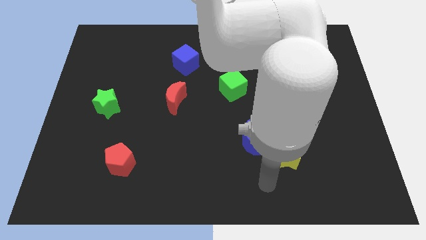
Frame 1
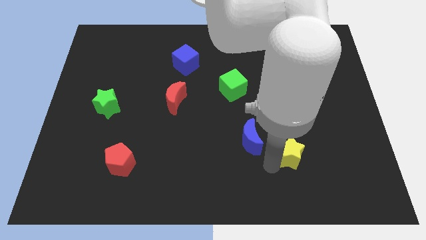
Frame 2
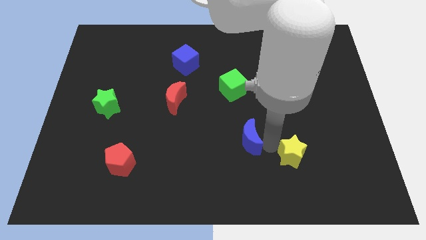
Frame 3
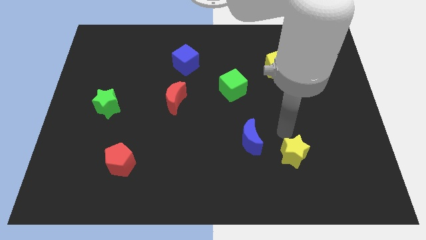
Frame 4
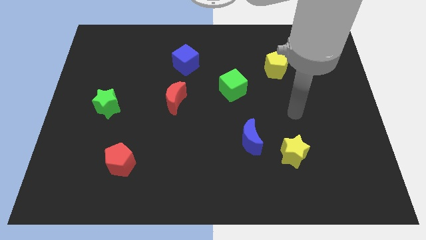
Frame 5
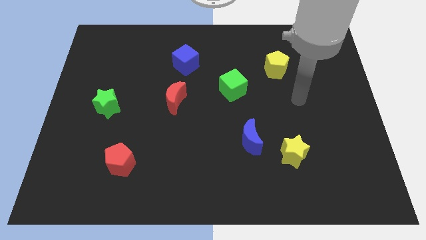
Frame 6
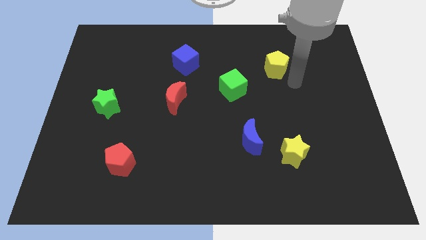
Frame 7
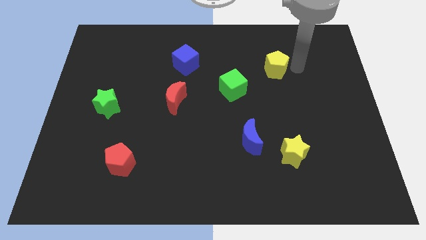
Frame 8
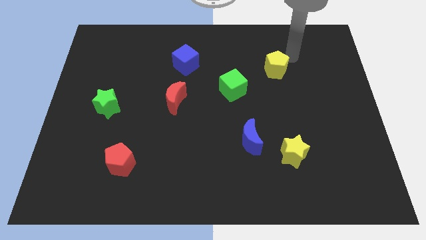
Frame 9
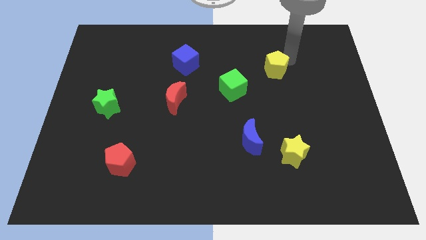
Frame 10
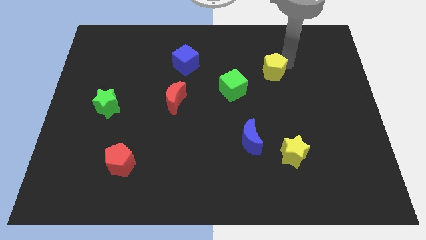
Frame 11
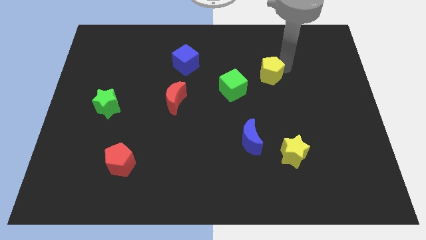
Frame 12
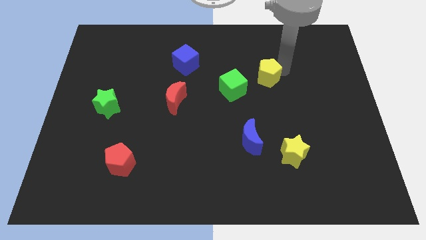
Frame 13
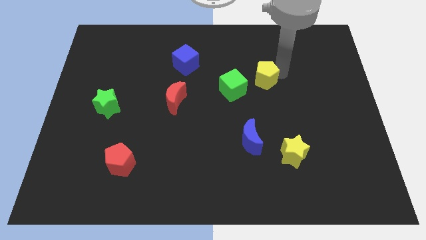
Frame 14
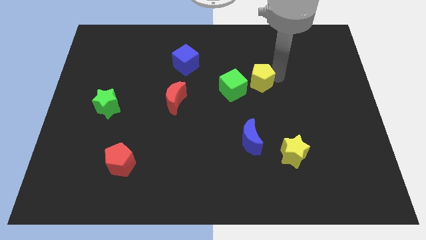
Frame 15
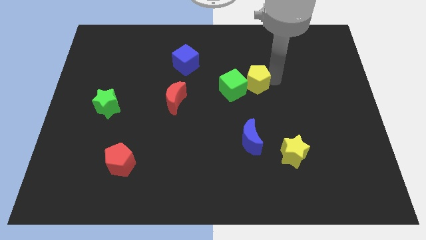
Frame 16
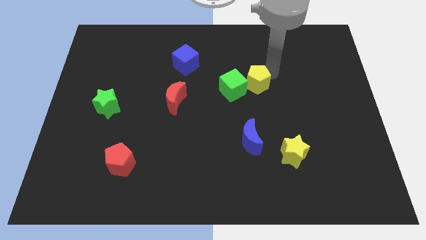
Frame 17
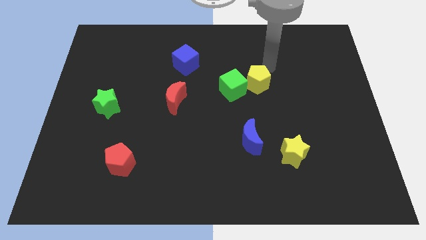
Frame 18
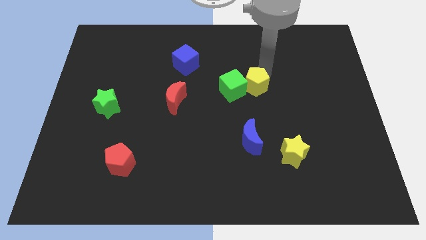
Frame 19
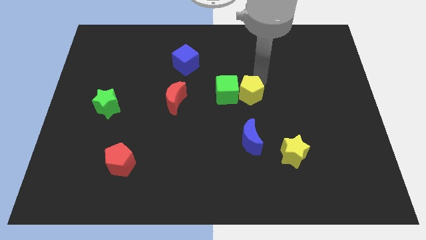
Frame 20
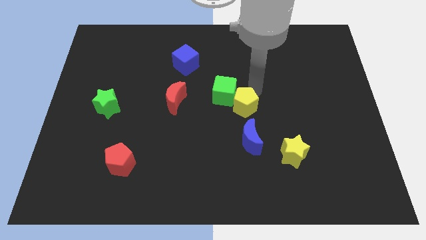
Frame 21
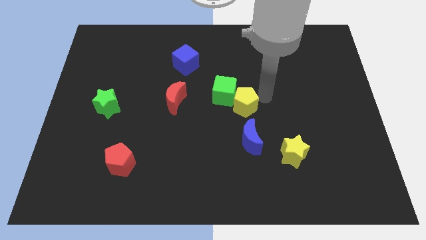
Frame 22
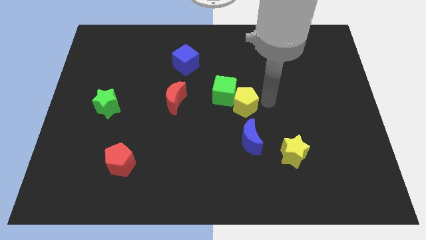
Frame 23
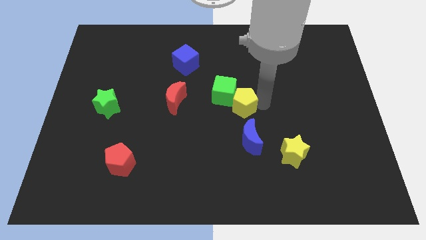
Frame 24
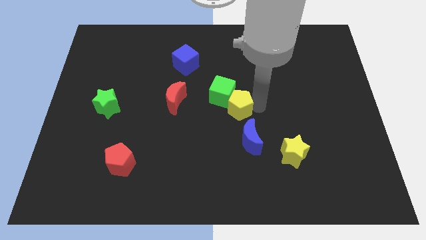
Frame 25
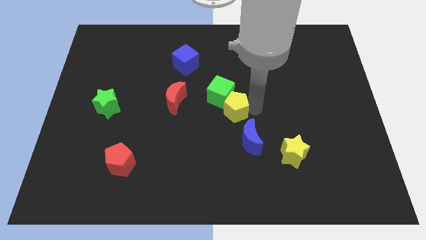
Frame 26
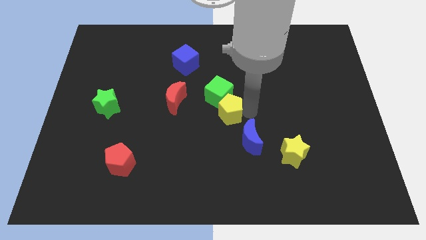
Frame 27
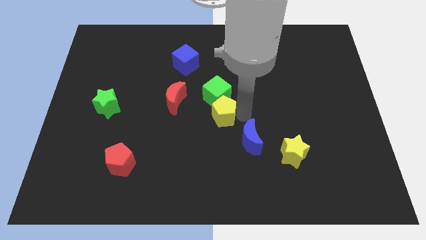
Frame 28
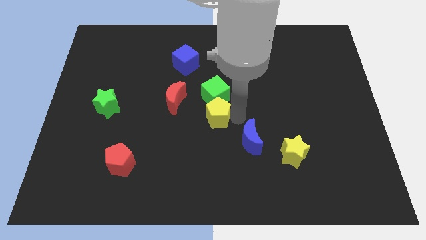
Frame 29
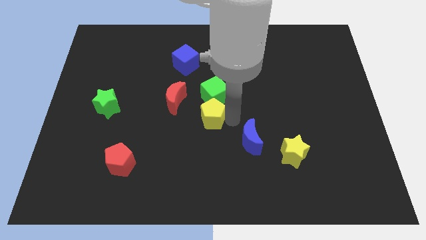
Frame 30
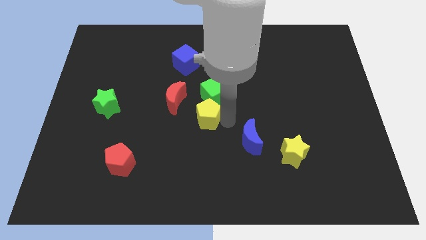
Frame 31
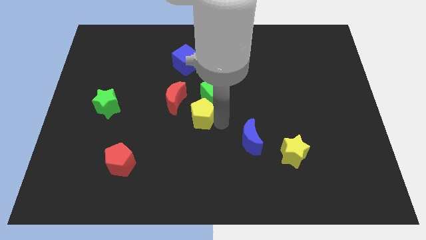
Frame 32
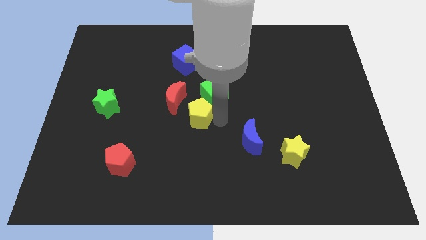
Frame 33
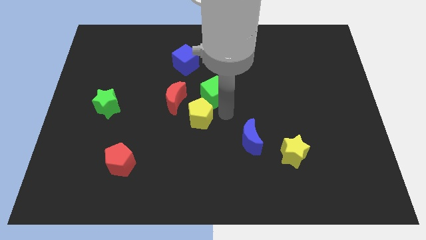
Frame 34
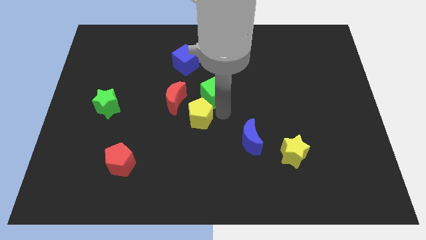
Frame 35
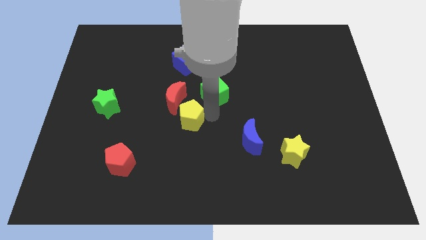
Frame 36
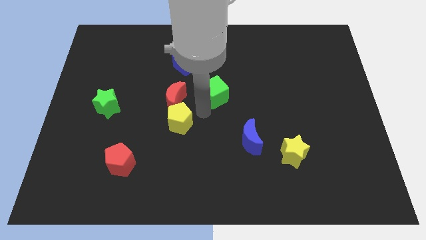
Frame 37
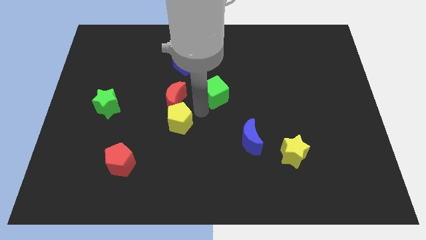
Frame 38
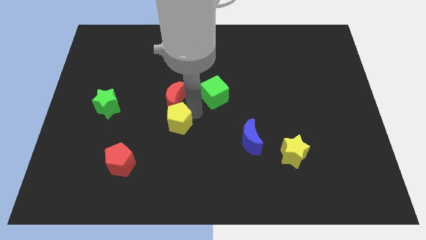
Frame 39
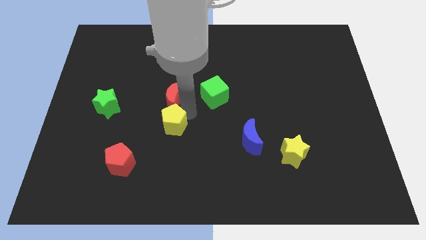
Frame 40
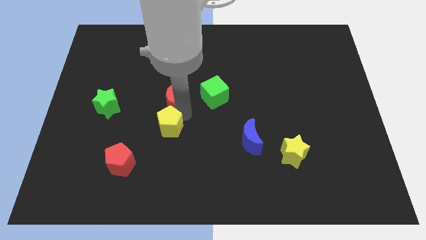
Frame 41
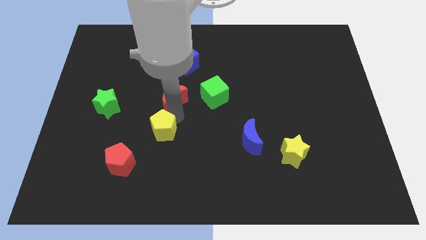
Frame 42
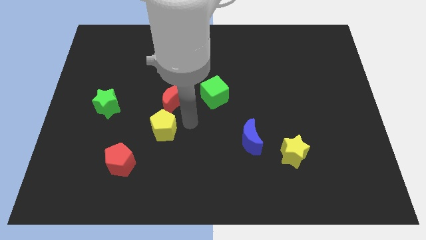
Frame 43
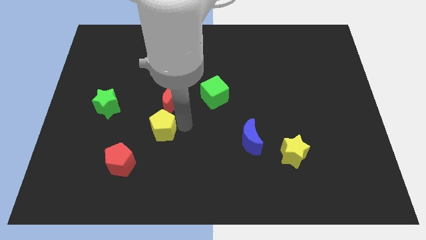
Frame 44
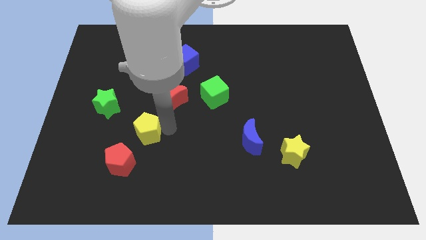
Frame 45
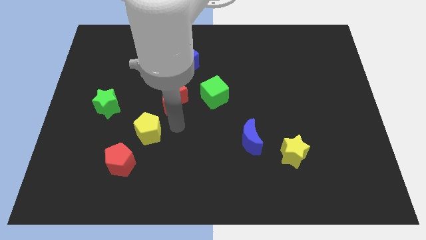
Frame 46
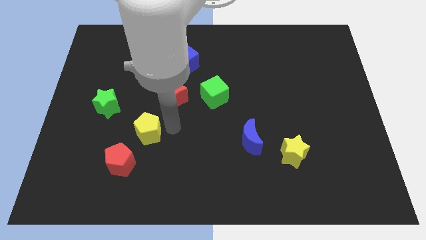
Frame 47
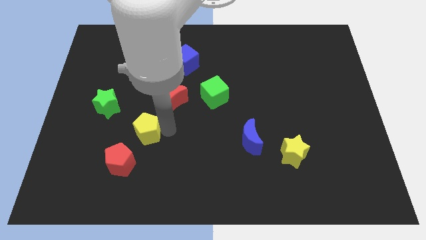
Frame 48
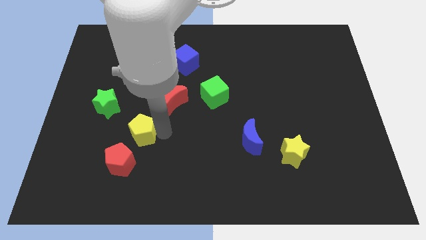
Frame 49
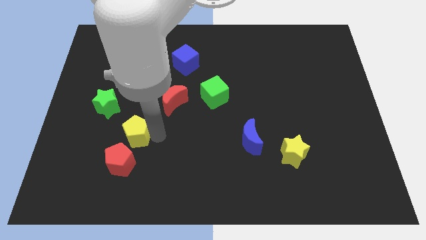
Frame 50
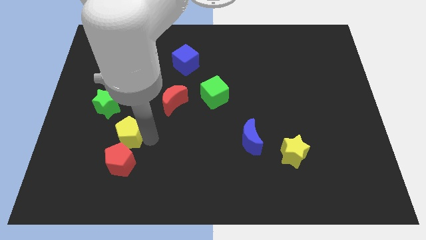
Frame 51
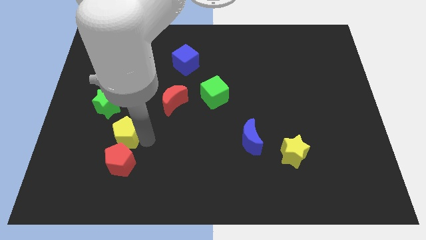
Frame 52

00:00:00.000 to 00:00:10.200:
push the yellow pentagon to the top left of the red pentagon
